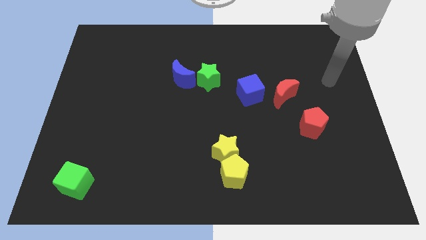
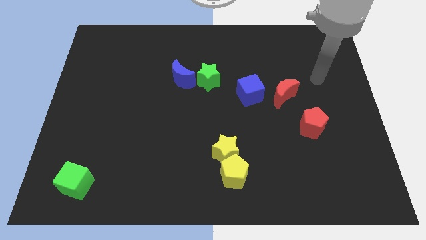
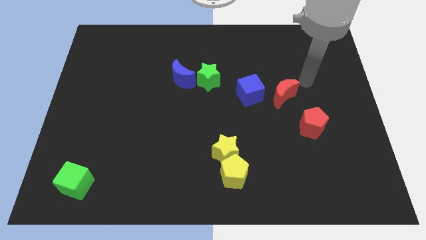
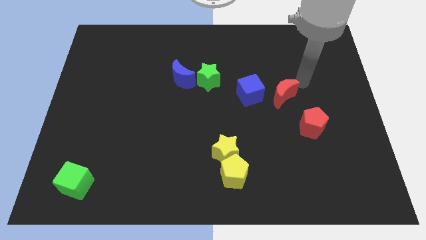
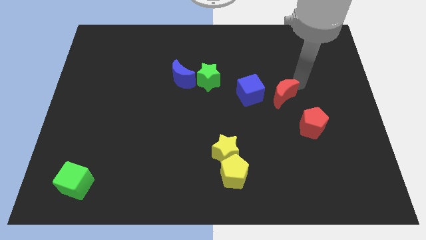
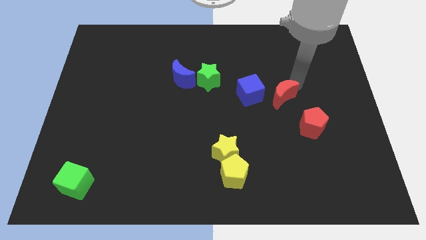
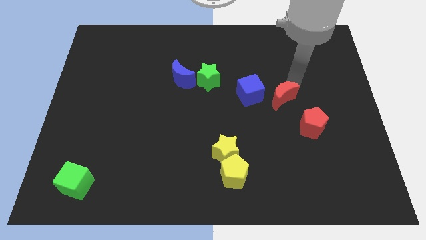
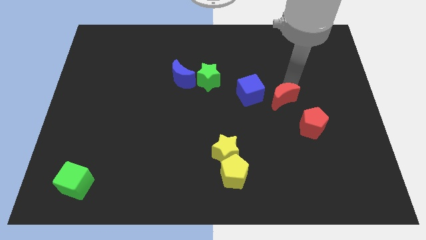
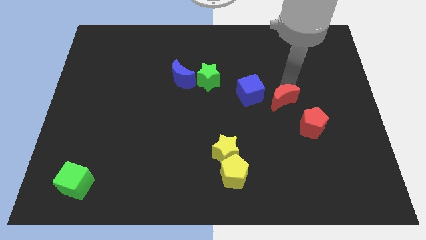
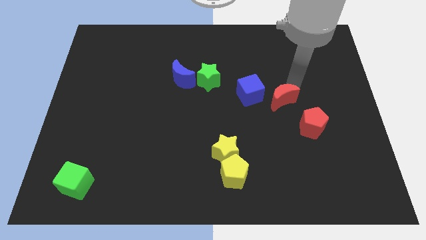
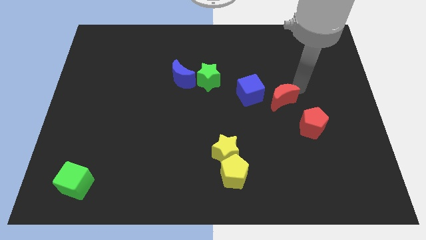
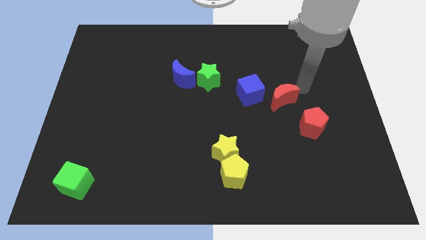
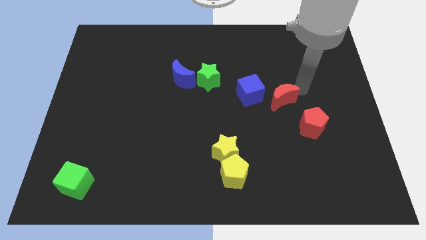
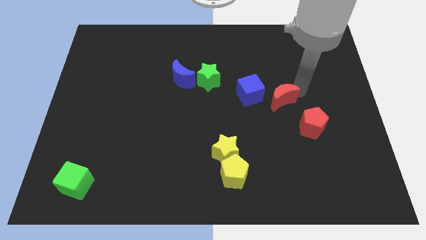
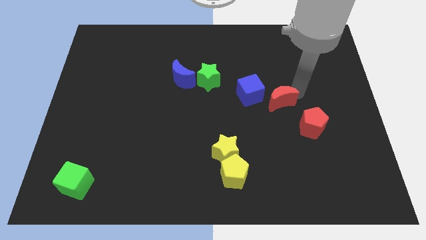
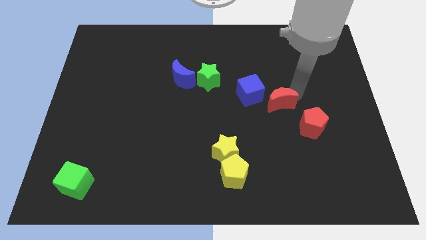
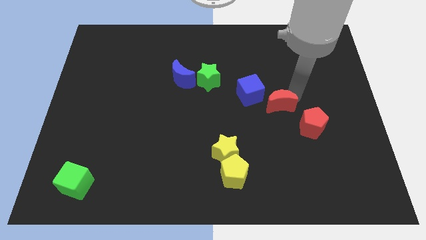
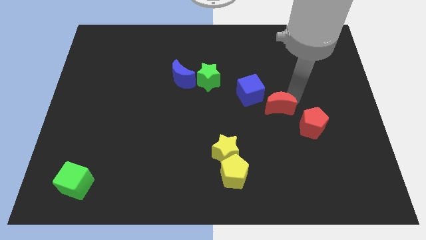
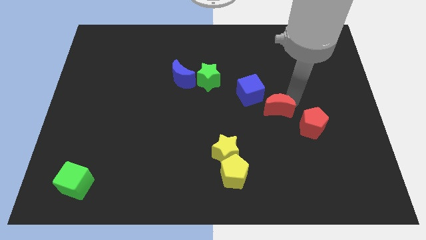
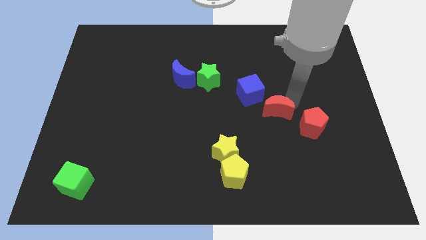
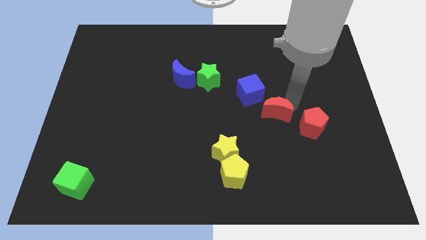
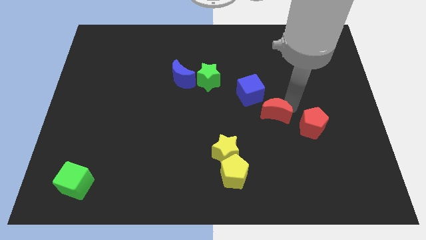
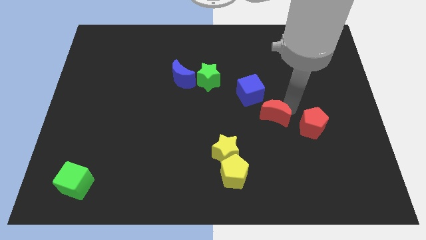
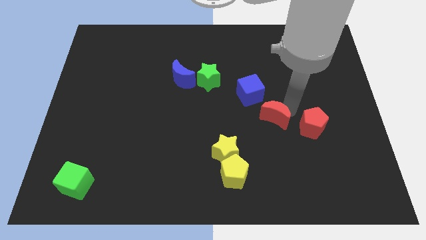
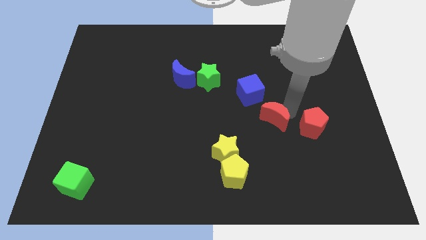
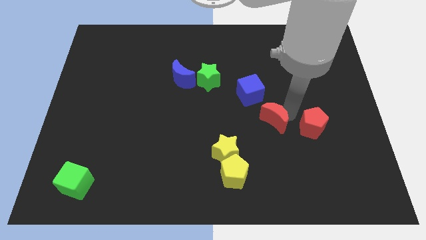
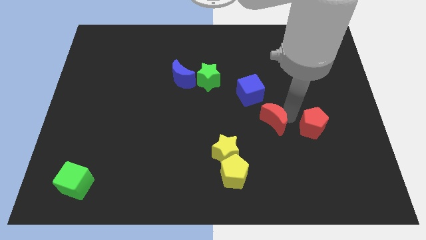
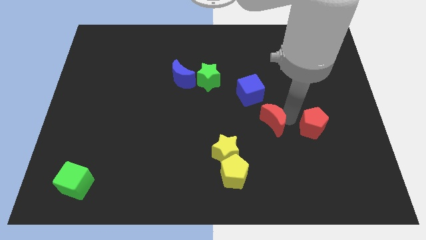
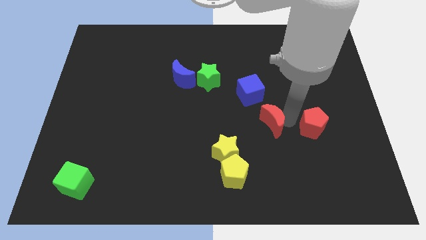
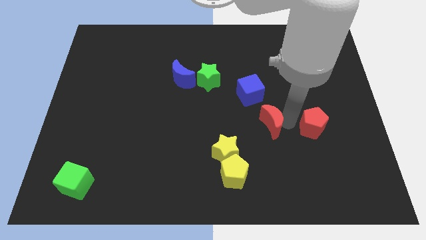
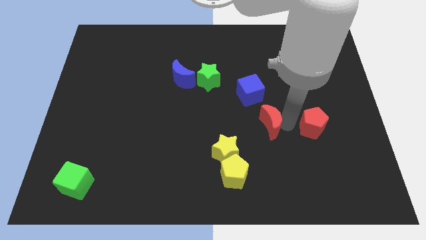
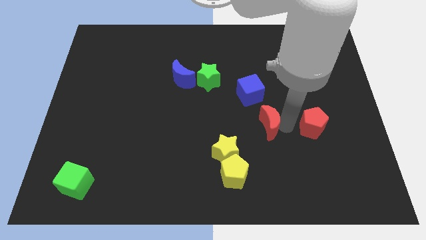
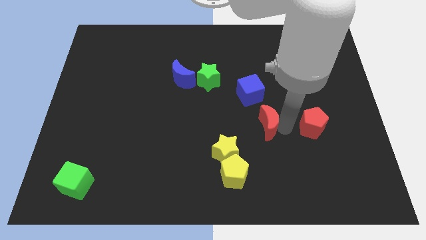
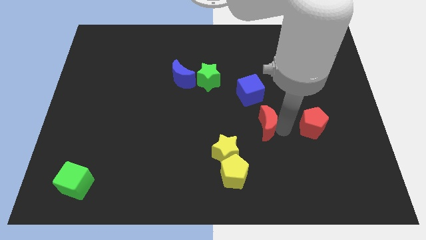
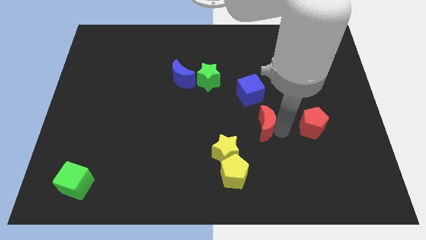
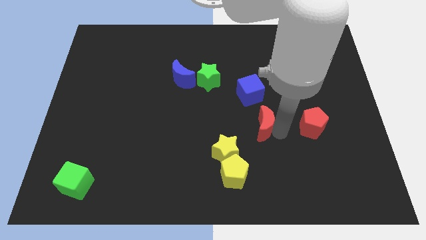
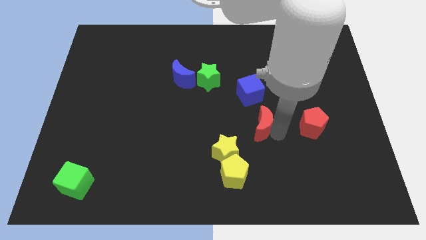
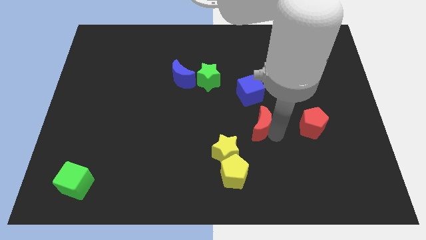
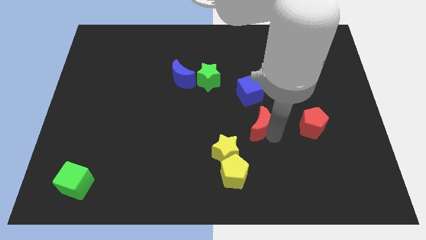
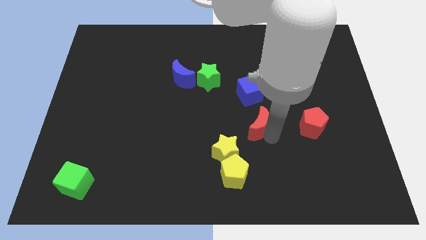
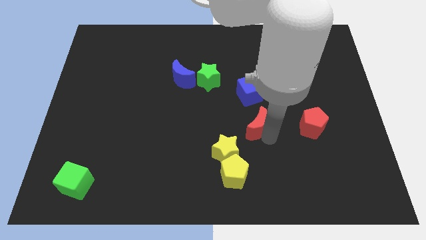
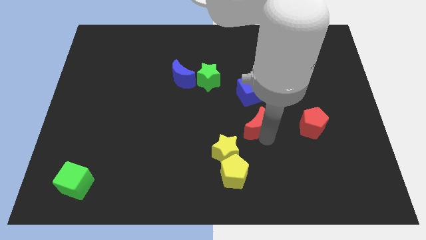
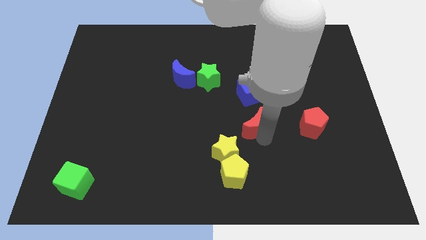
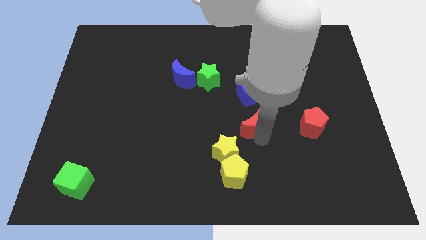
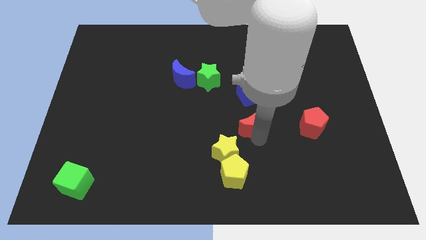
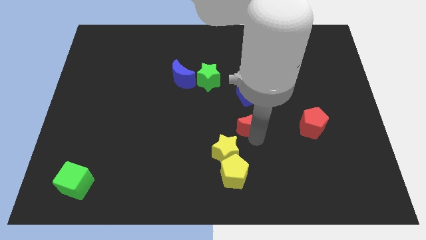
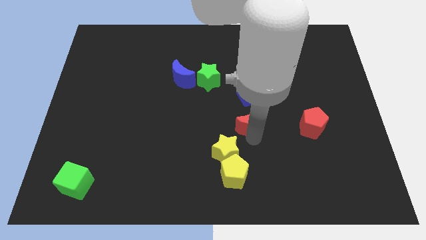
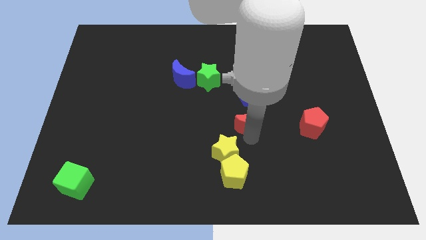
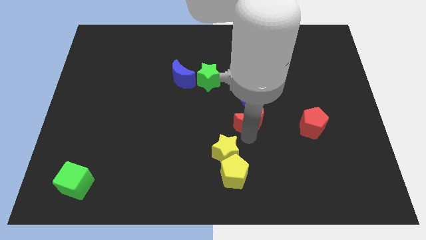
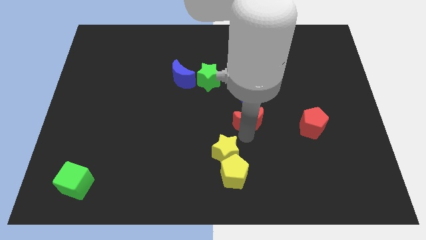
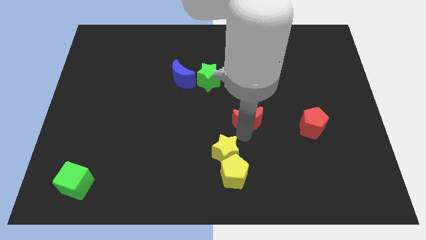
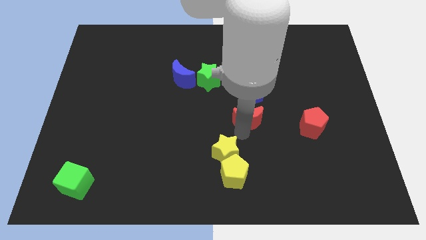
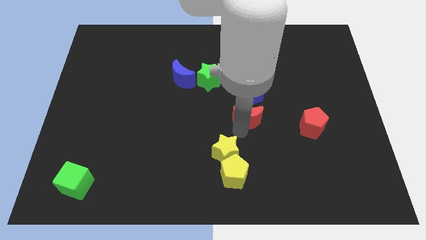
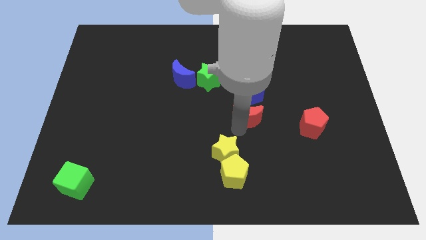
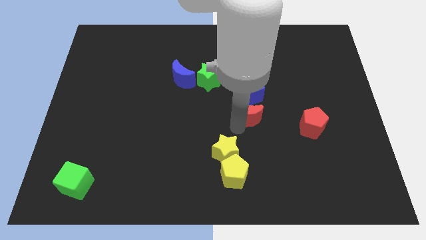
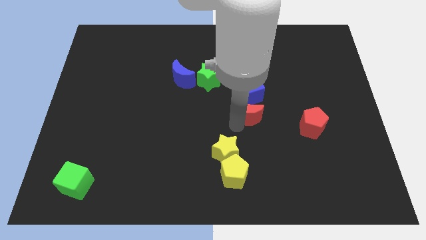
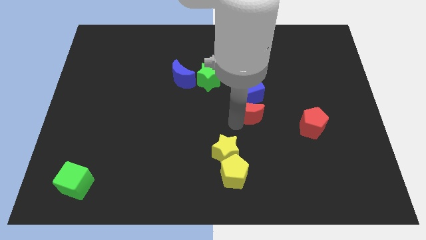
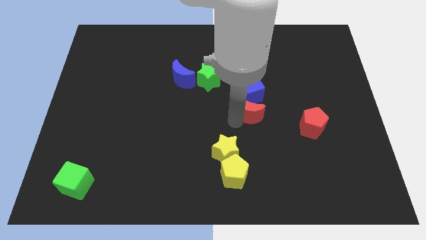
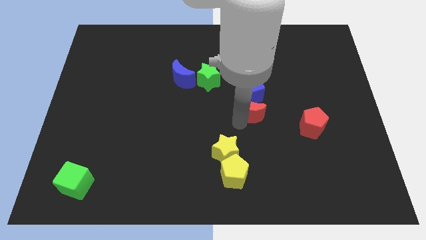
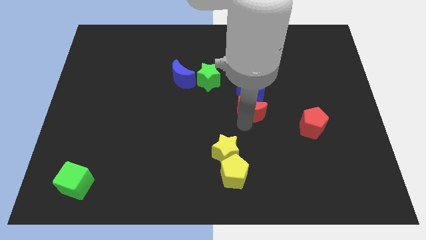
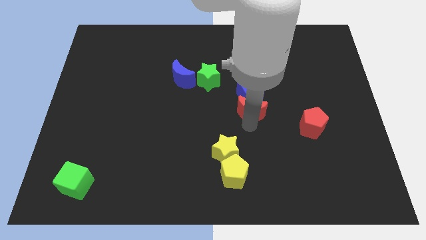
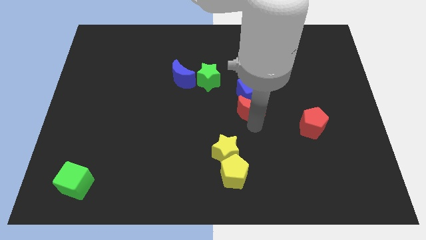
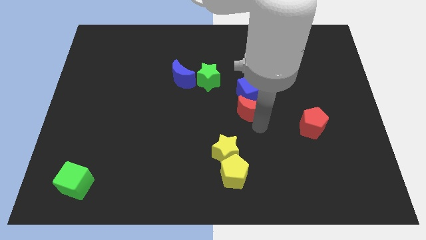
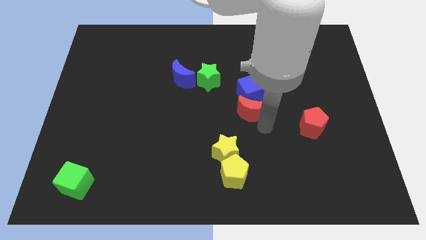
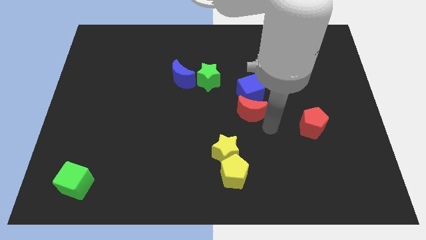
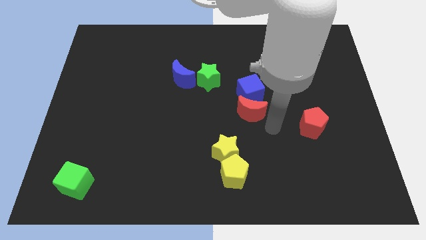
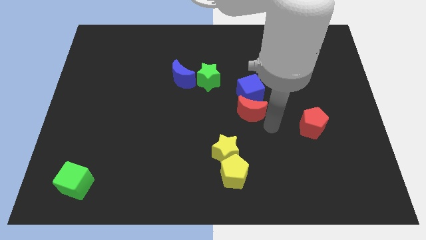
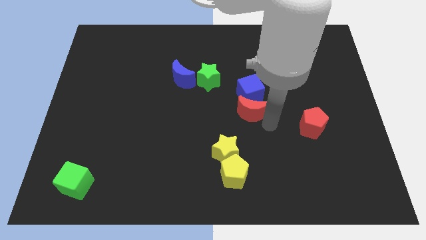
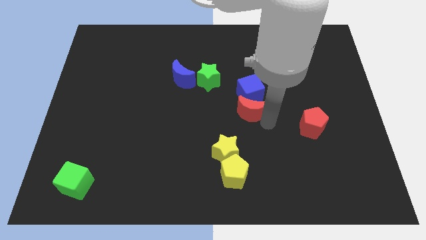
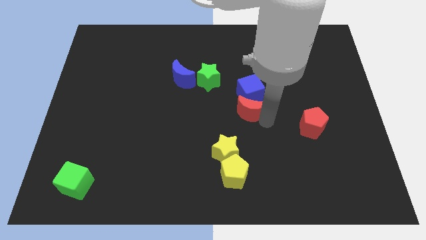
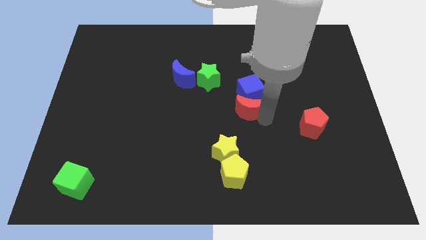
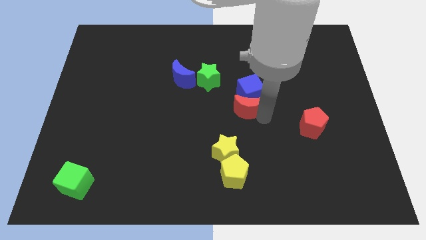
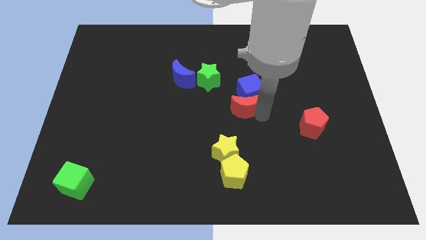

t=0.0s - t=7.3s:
slide the red moon diagonally down and to the right of the green star

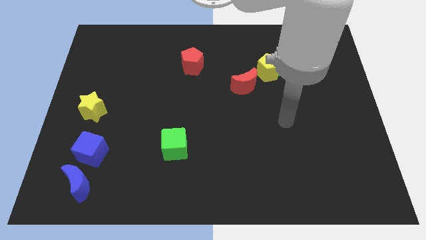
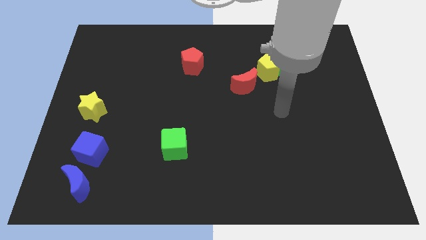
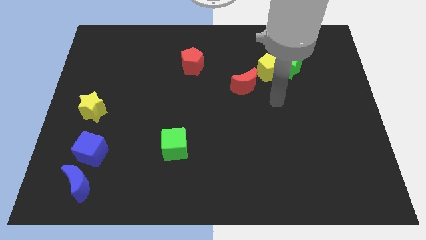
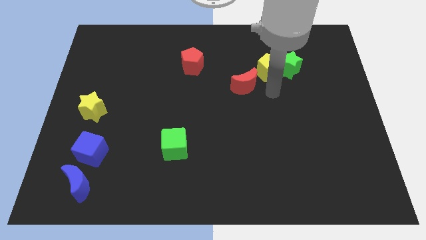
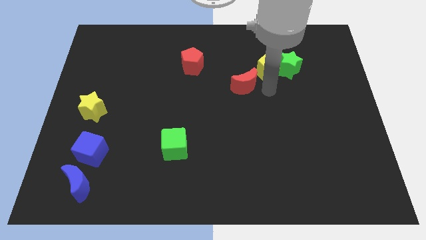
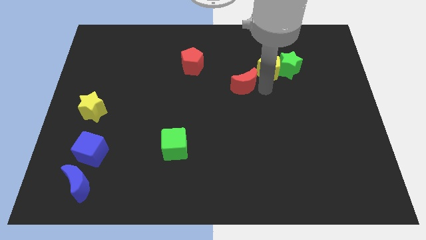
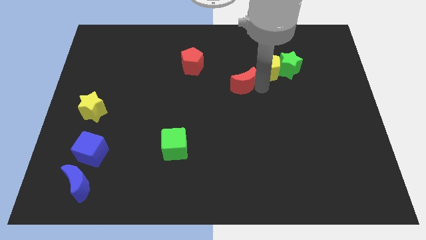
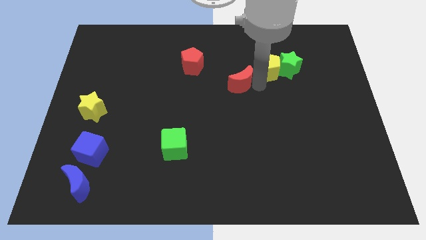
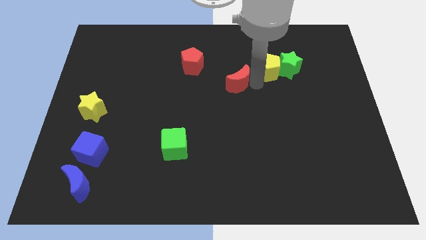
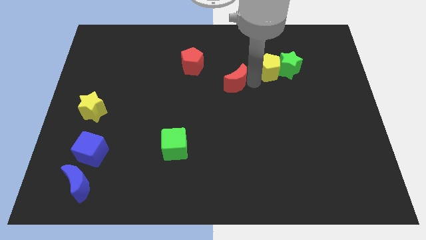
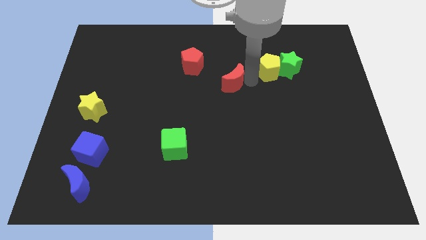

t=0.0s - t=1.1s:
move the red moon diagonally down and to the right of the red pentagon
